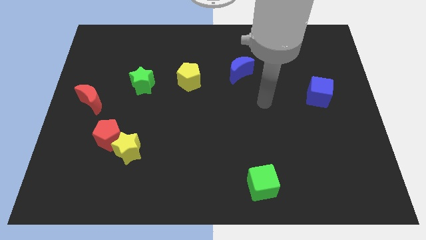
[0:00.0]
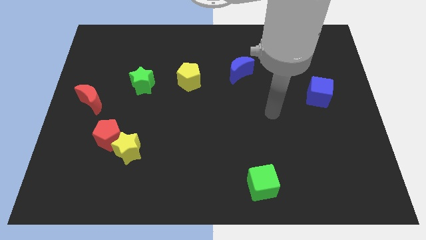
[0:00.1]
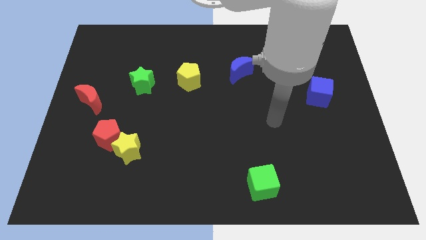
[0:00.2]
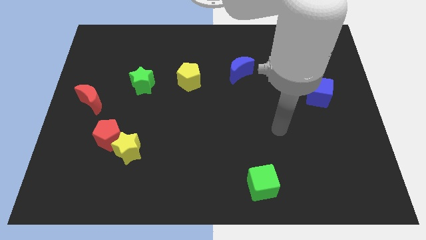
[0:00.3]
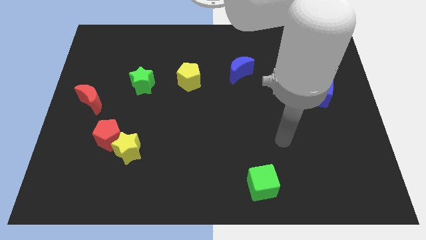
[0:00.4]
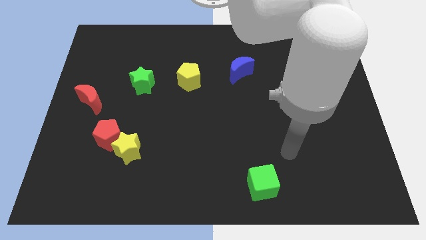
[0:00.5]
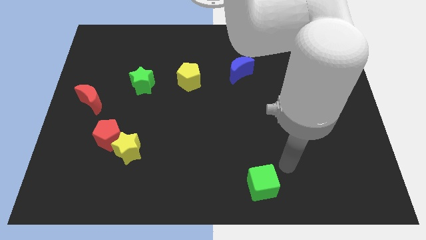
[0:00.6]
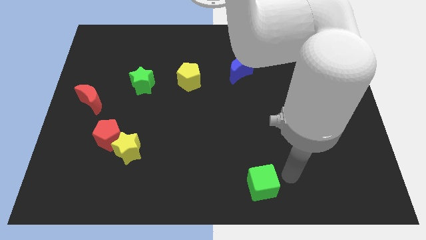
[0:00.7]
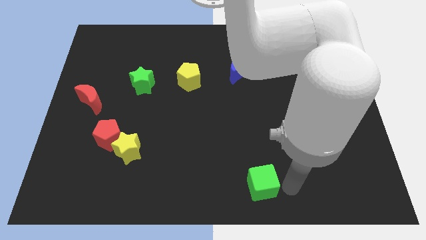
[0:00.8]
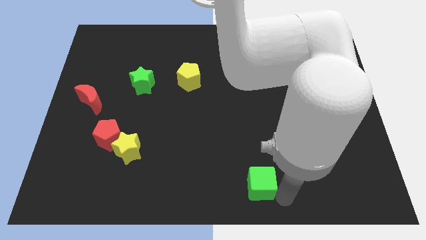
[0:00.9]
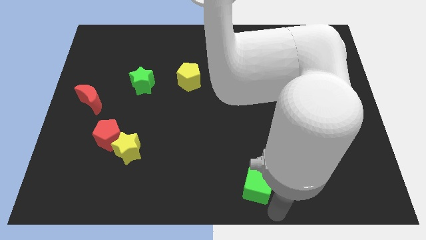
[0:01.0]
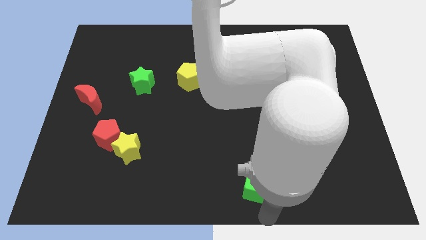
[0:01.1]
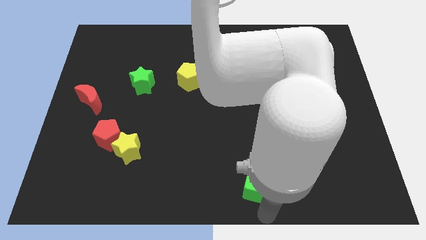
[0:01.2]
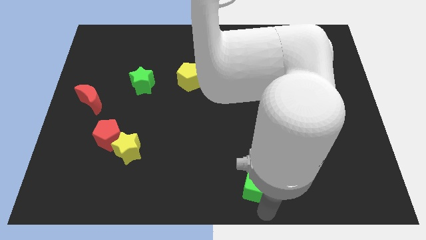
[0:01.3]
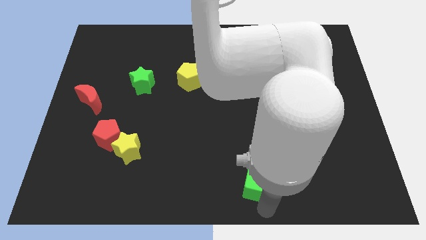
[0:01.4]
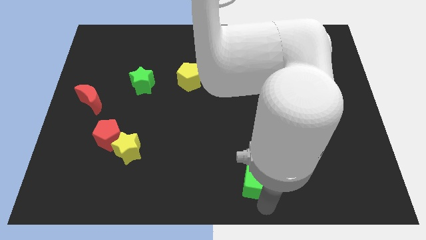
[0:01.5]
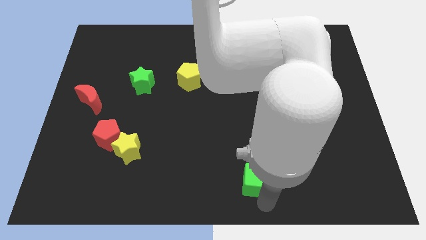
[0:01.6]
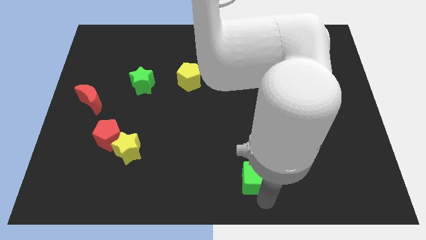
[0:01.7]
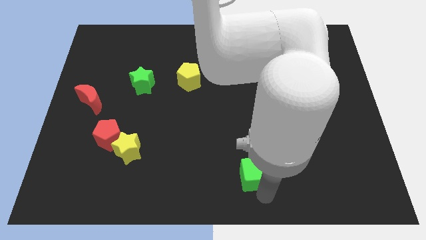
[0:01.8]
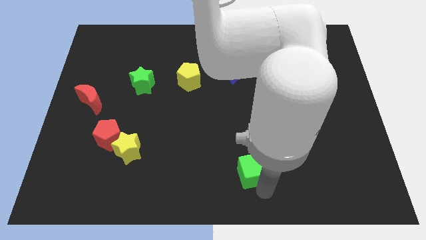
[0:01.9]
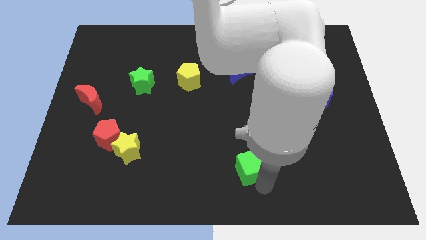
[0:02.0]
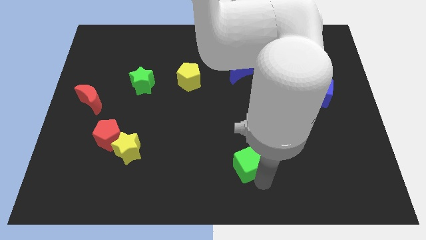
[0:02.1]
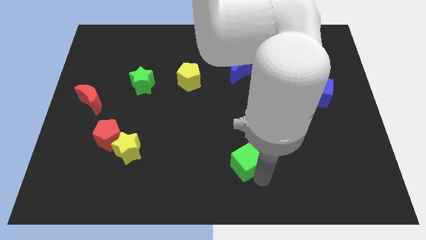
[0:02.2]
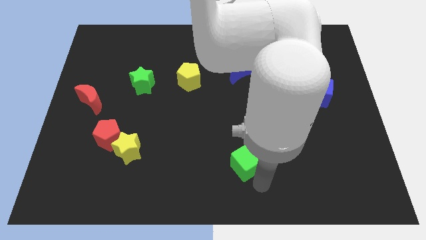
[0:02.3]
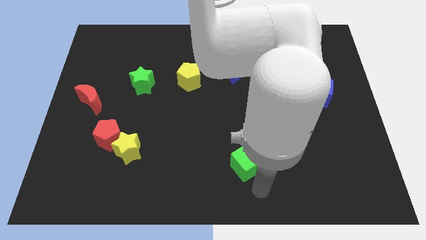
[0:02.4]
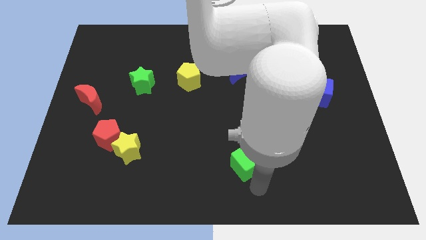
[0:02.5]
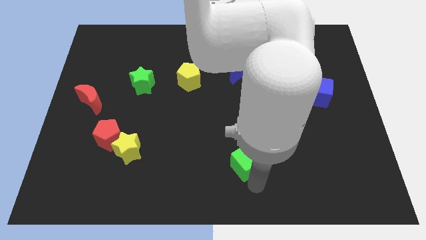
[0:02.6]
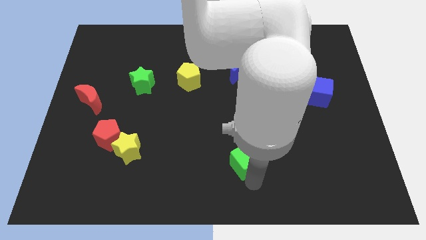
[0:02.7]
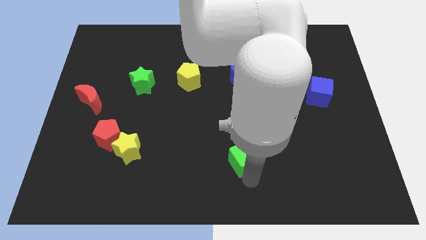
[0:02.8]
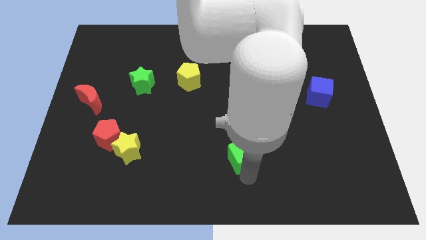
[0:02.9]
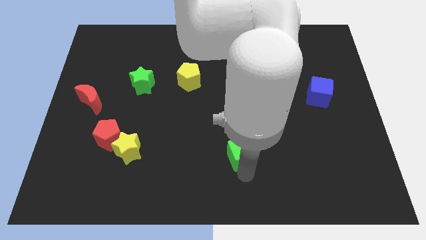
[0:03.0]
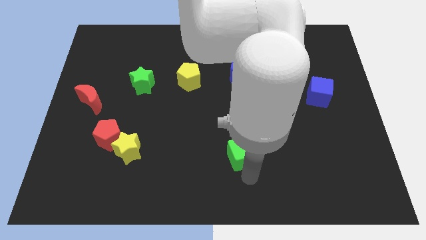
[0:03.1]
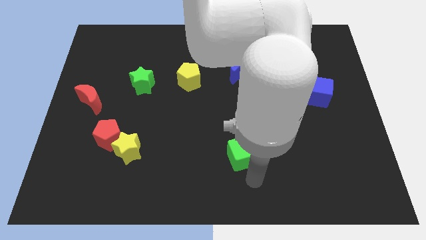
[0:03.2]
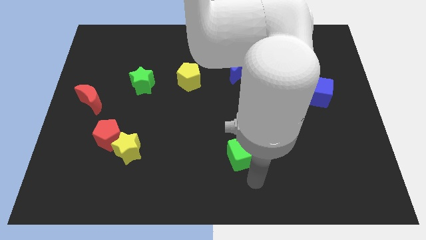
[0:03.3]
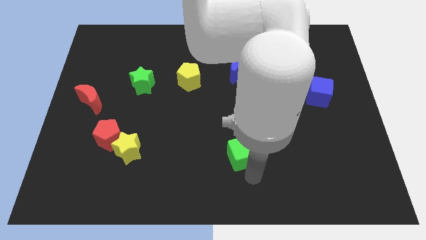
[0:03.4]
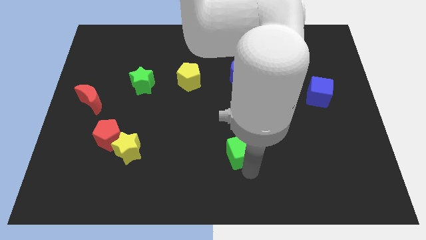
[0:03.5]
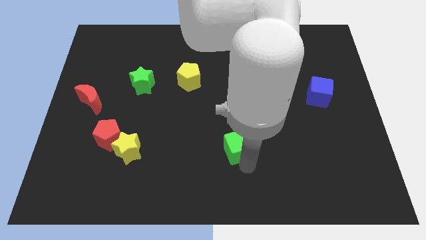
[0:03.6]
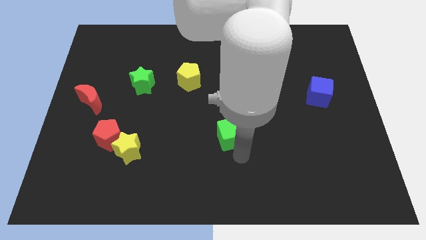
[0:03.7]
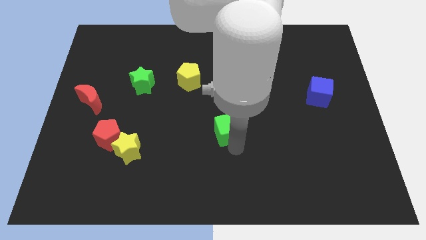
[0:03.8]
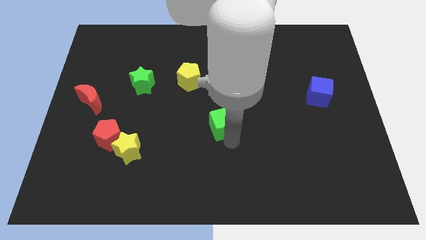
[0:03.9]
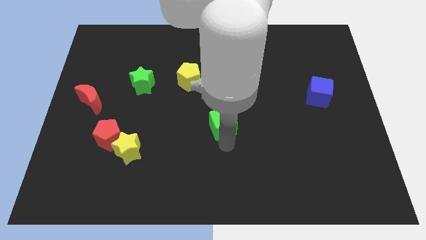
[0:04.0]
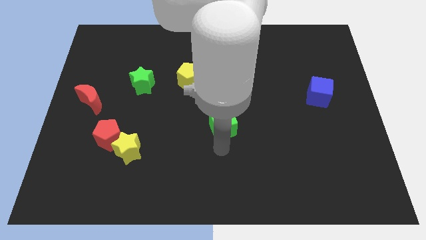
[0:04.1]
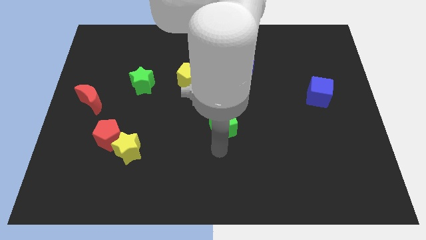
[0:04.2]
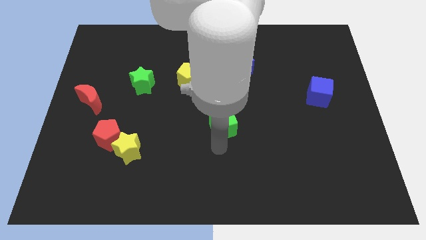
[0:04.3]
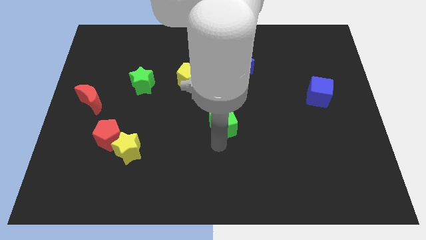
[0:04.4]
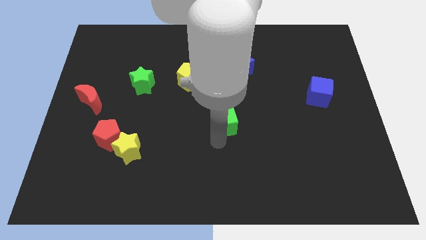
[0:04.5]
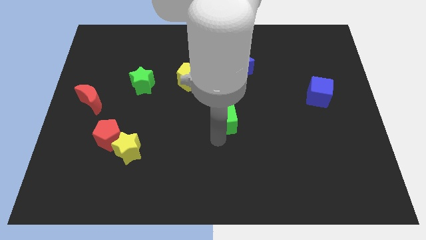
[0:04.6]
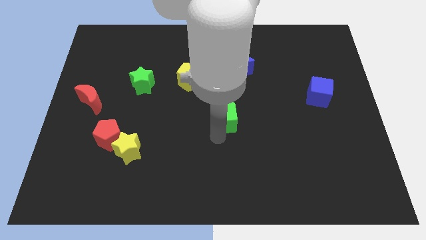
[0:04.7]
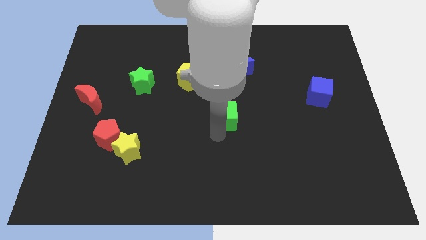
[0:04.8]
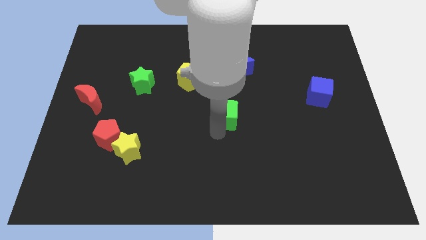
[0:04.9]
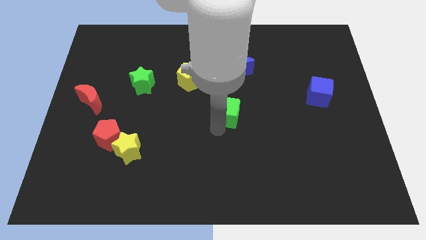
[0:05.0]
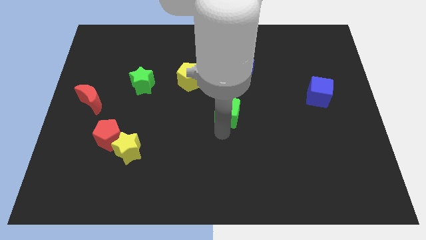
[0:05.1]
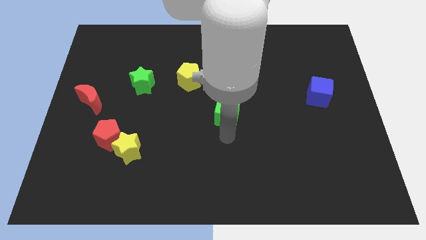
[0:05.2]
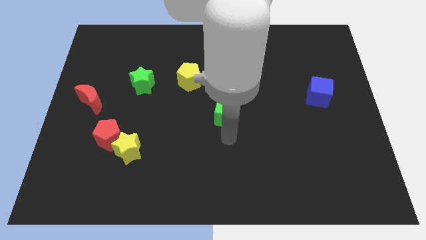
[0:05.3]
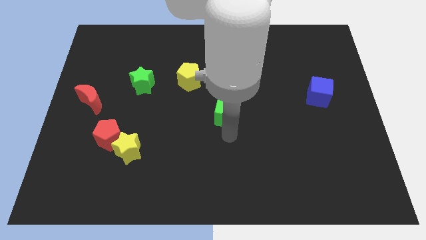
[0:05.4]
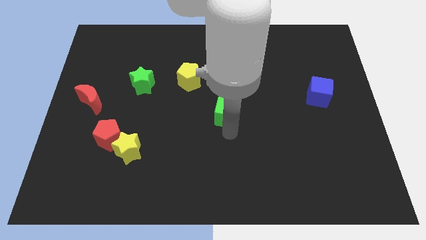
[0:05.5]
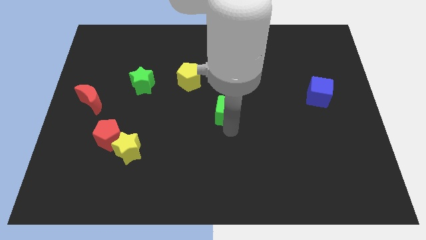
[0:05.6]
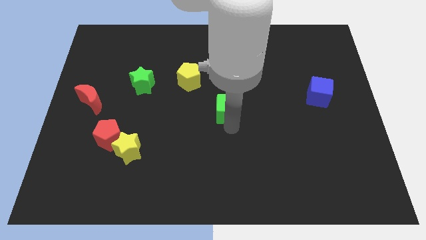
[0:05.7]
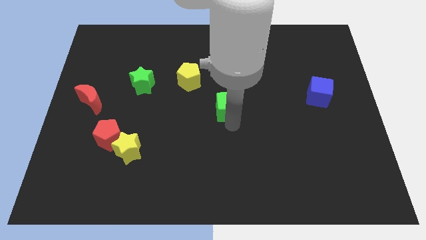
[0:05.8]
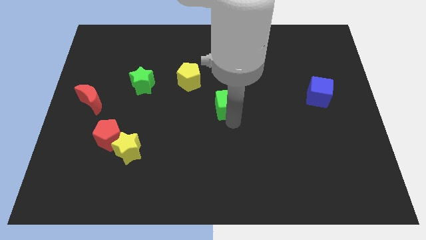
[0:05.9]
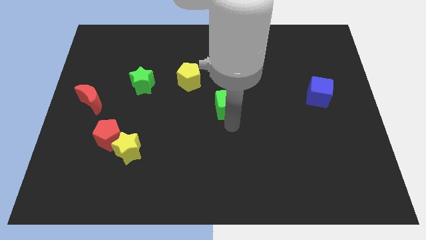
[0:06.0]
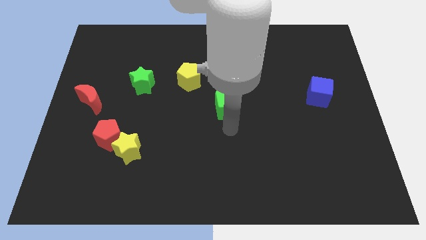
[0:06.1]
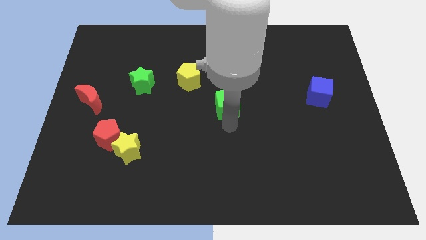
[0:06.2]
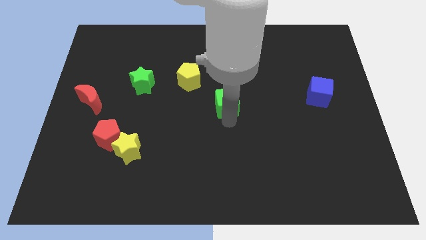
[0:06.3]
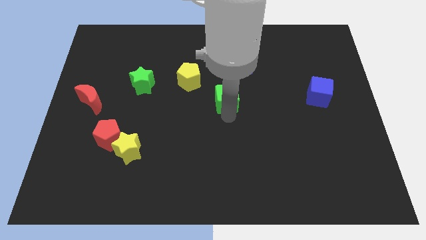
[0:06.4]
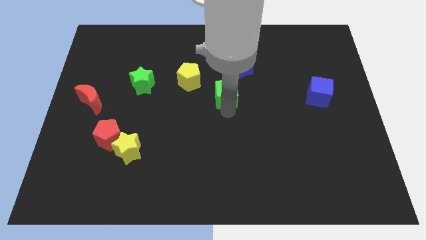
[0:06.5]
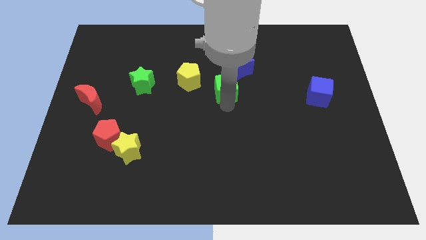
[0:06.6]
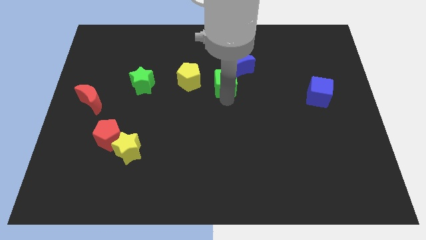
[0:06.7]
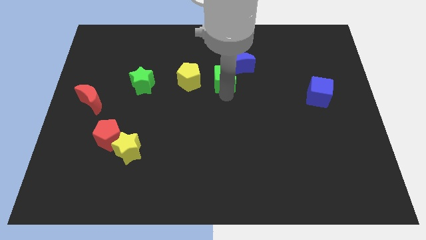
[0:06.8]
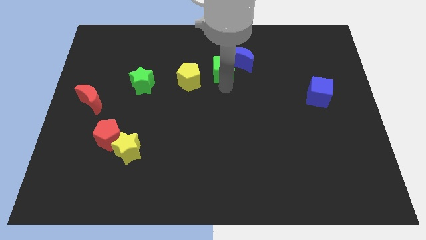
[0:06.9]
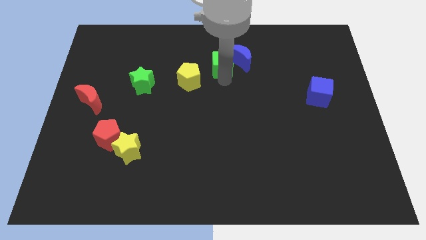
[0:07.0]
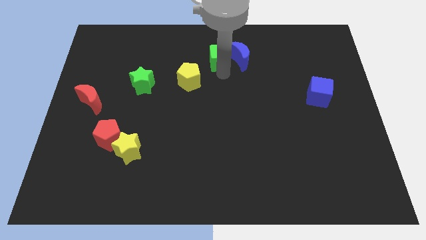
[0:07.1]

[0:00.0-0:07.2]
move the green cube to the top left side of the blue moon
